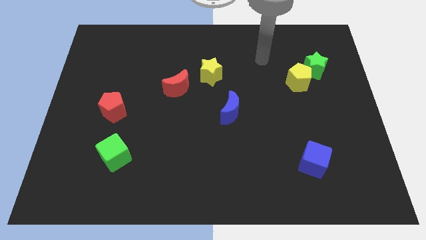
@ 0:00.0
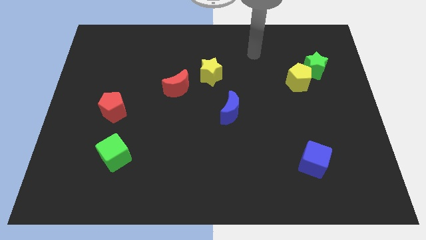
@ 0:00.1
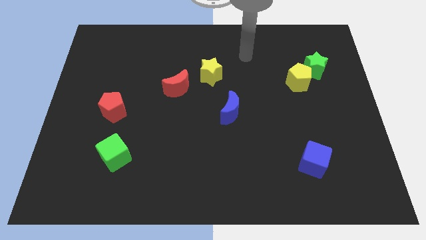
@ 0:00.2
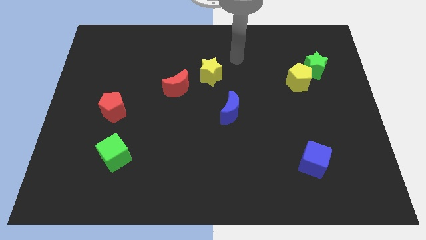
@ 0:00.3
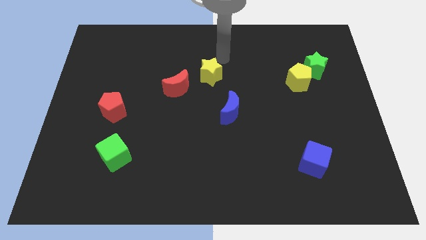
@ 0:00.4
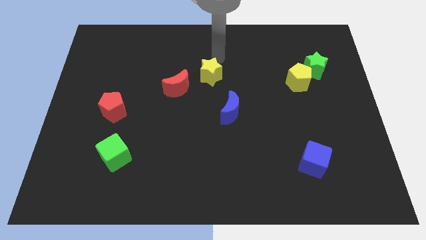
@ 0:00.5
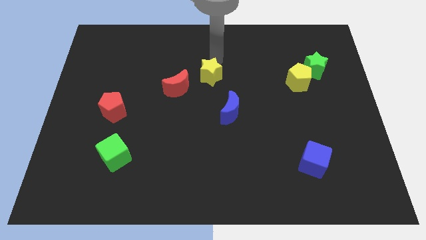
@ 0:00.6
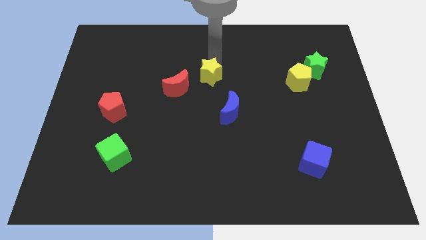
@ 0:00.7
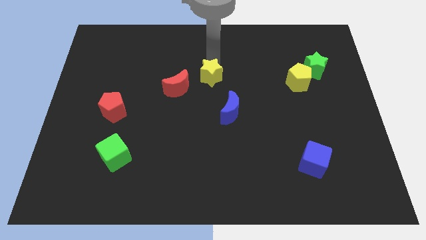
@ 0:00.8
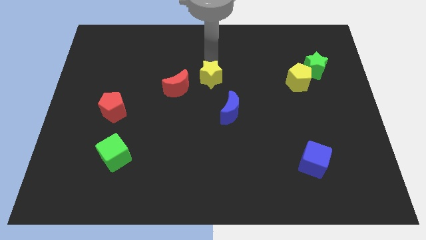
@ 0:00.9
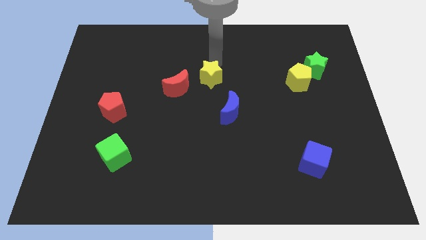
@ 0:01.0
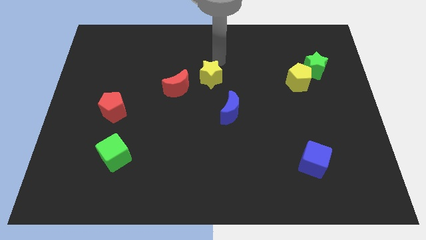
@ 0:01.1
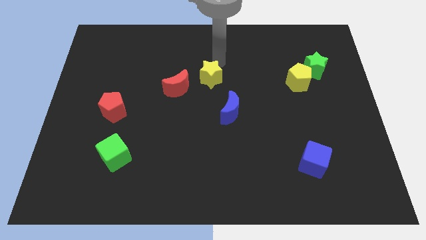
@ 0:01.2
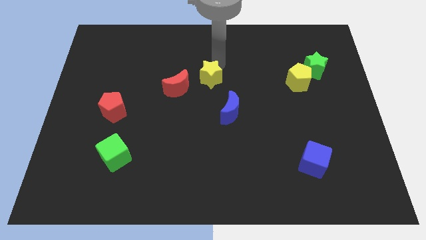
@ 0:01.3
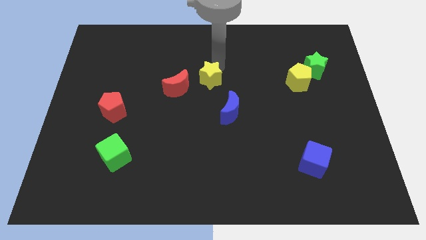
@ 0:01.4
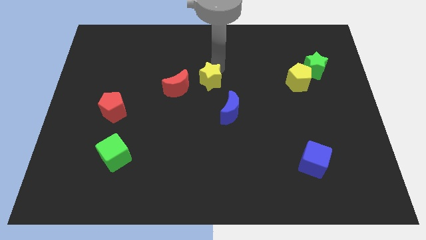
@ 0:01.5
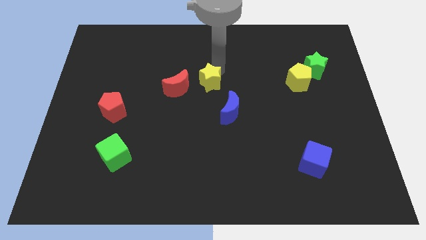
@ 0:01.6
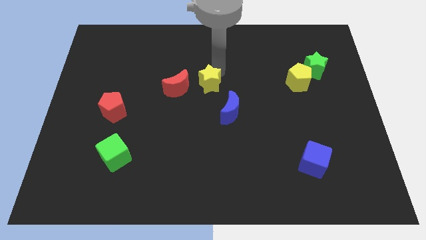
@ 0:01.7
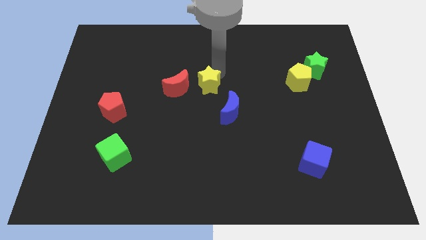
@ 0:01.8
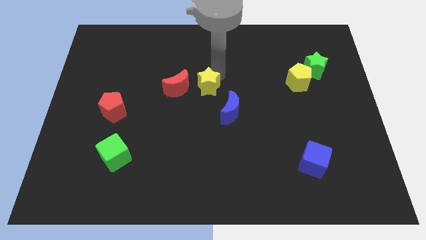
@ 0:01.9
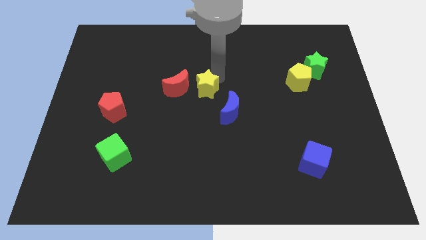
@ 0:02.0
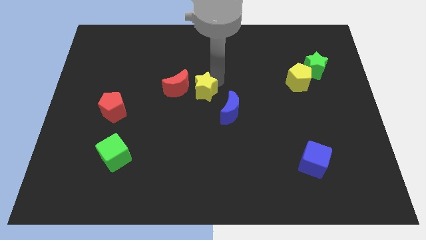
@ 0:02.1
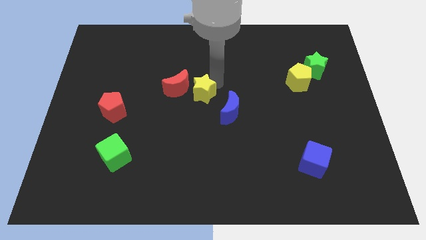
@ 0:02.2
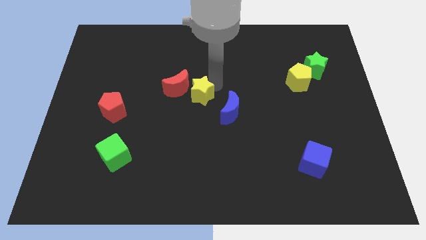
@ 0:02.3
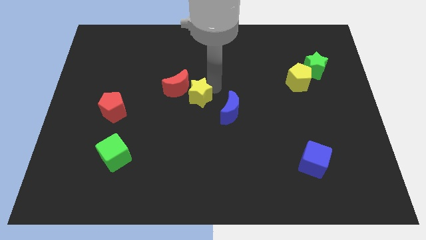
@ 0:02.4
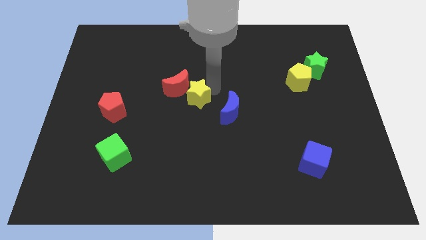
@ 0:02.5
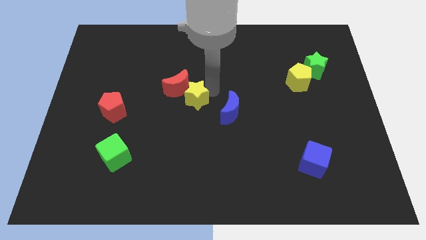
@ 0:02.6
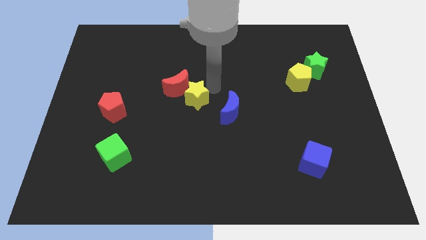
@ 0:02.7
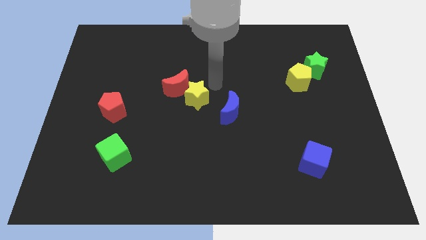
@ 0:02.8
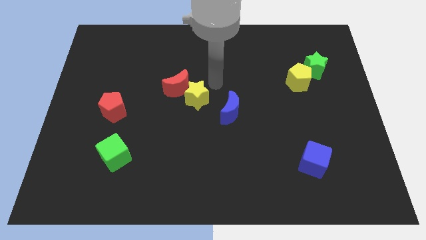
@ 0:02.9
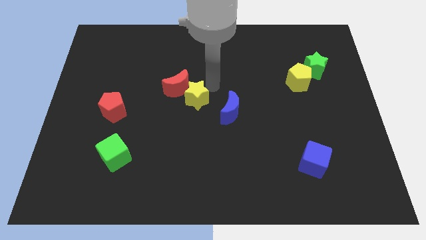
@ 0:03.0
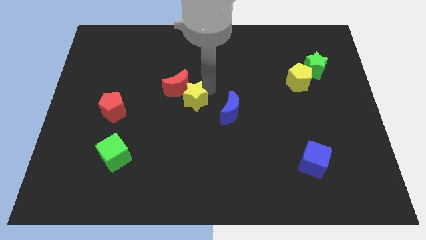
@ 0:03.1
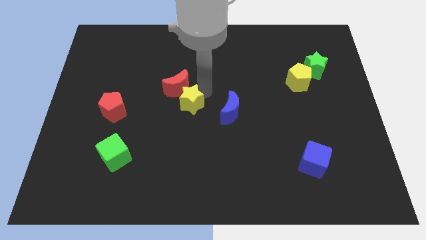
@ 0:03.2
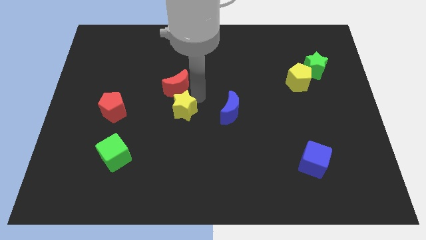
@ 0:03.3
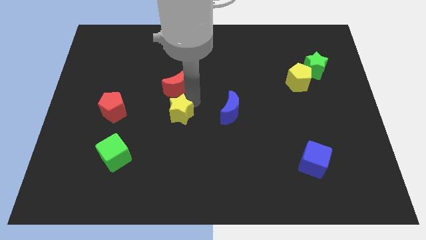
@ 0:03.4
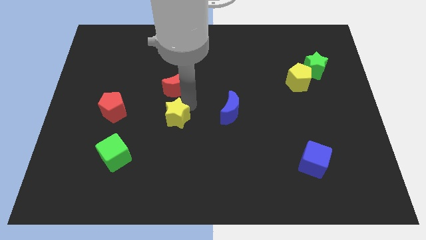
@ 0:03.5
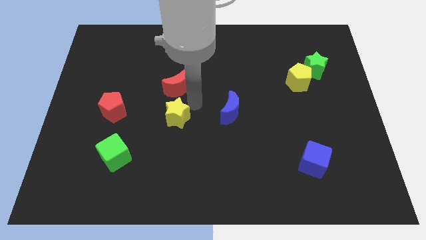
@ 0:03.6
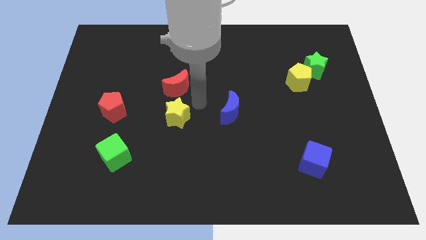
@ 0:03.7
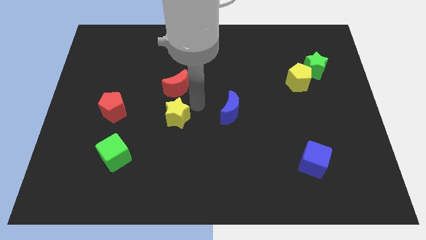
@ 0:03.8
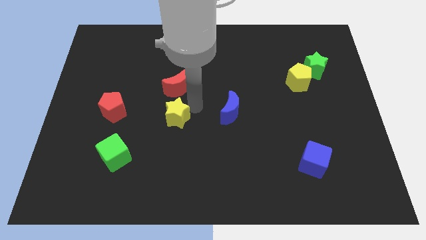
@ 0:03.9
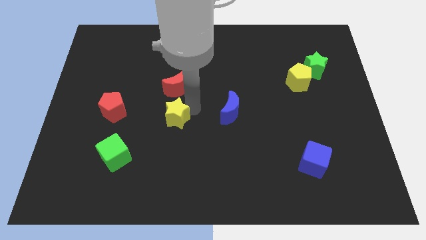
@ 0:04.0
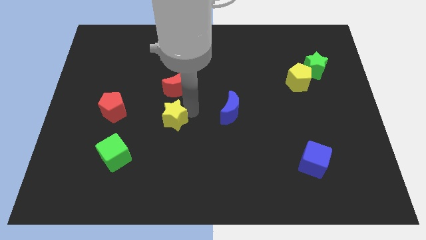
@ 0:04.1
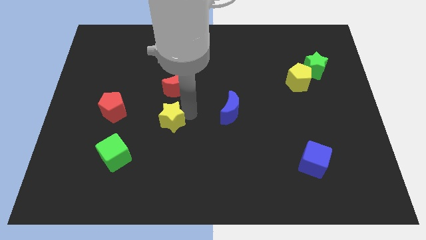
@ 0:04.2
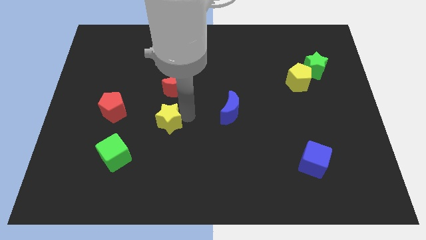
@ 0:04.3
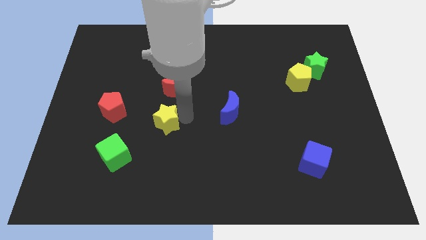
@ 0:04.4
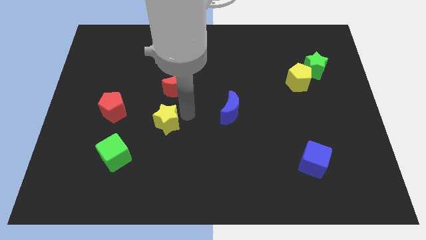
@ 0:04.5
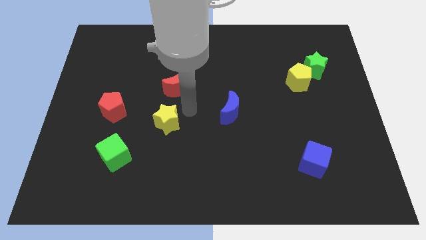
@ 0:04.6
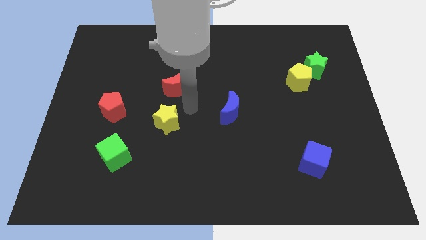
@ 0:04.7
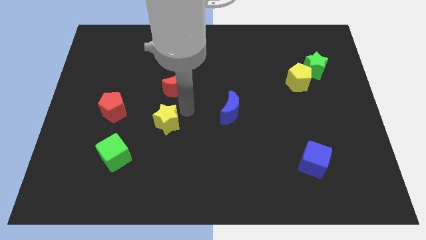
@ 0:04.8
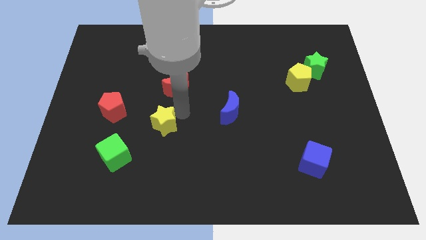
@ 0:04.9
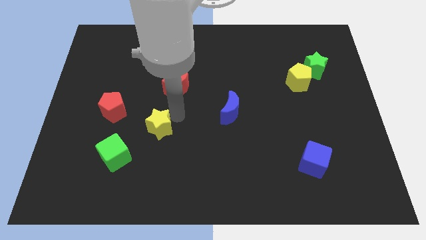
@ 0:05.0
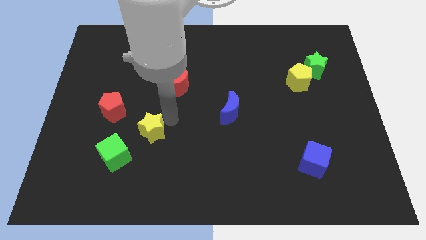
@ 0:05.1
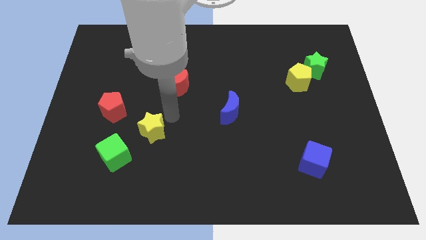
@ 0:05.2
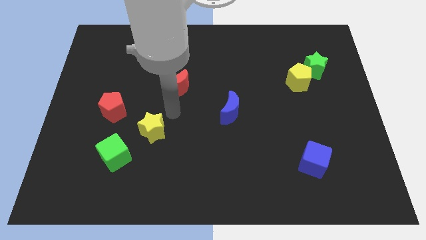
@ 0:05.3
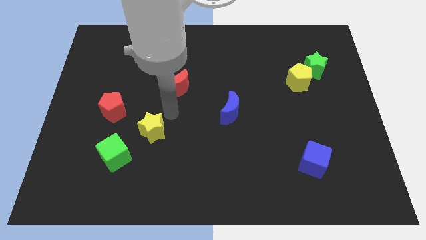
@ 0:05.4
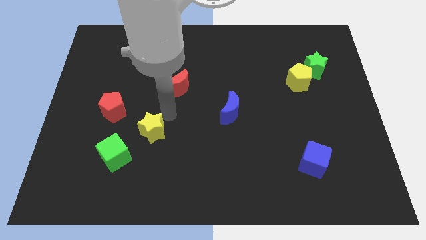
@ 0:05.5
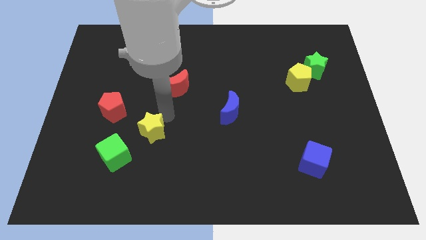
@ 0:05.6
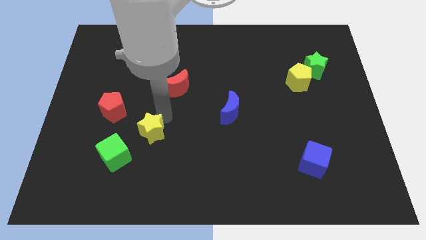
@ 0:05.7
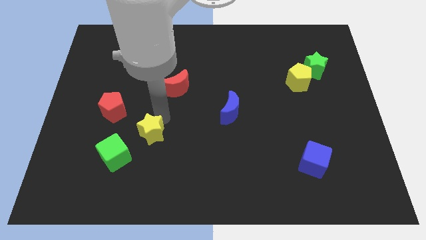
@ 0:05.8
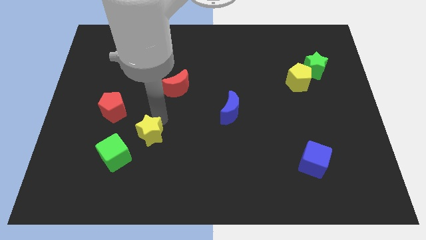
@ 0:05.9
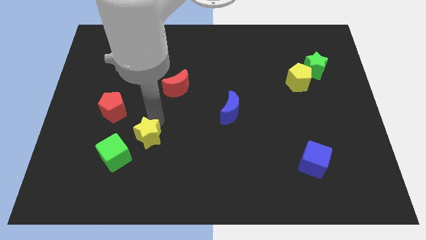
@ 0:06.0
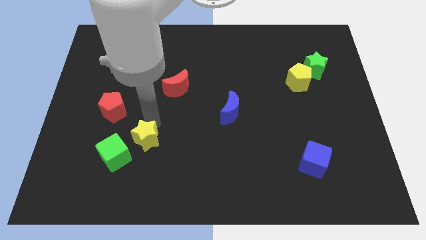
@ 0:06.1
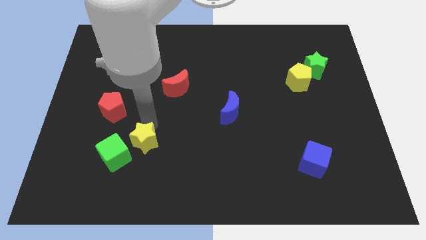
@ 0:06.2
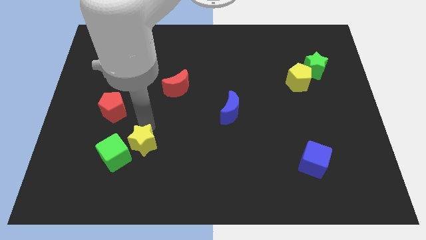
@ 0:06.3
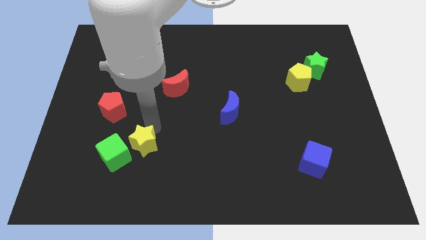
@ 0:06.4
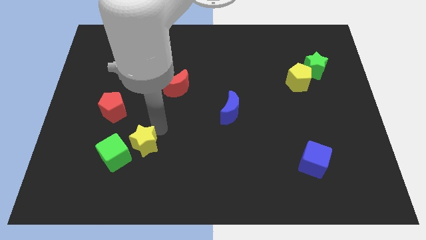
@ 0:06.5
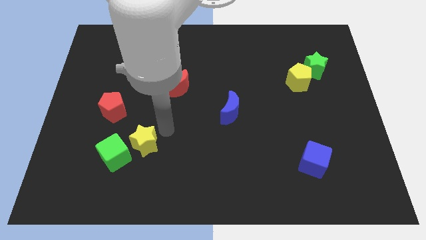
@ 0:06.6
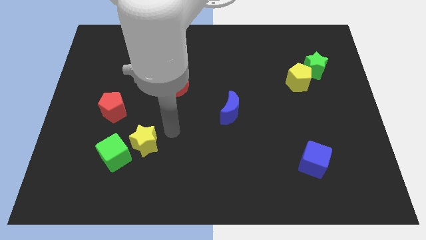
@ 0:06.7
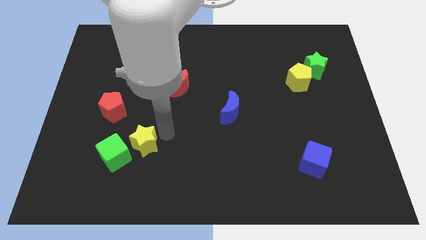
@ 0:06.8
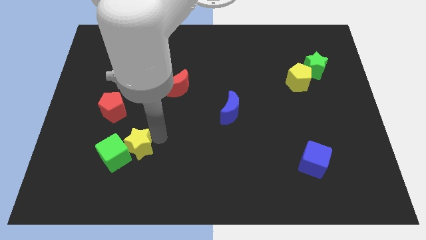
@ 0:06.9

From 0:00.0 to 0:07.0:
put the yellow star close to the green cube

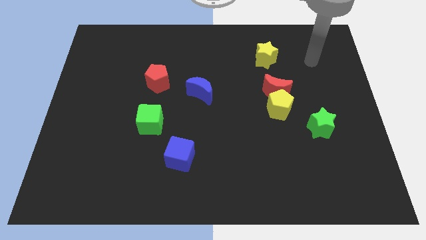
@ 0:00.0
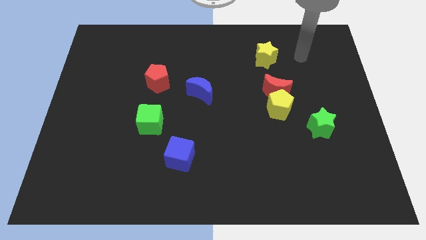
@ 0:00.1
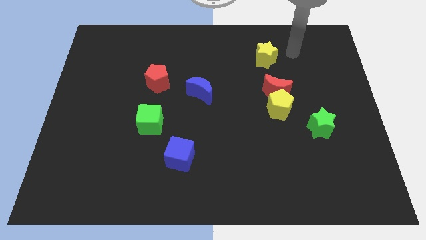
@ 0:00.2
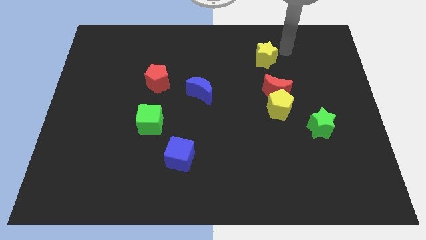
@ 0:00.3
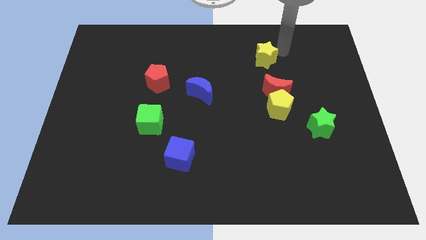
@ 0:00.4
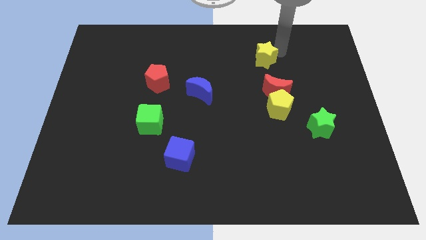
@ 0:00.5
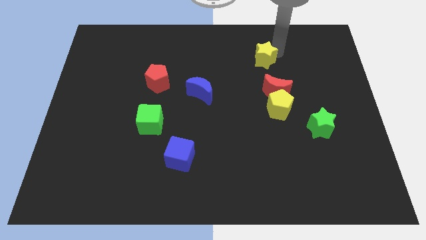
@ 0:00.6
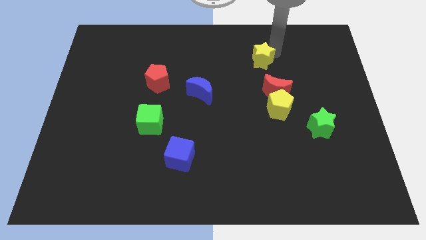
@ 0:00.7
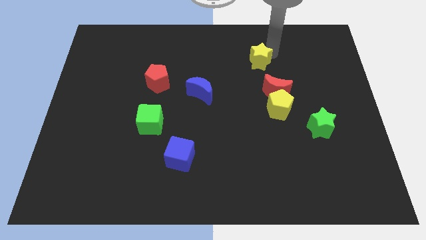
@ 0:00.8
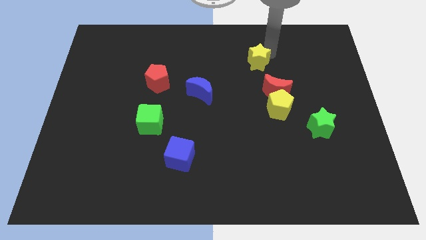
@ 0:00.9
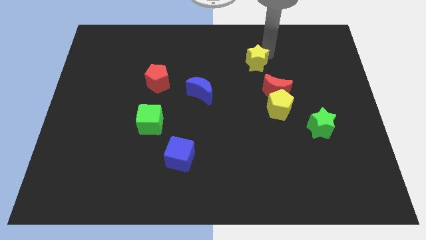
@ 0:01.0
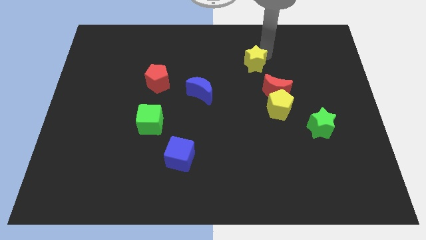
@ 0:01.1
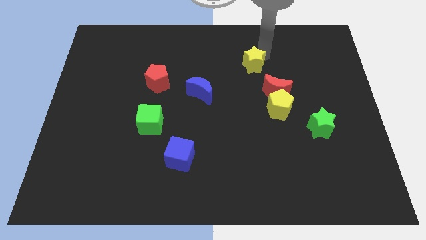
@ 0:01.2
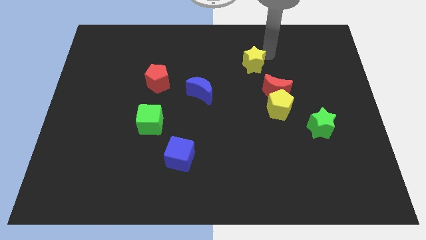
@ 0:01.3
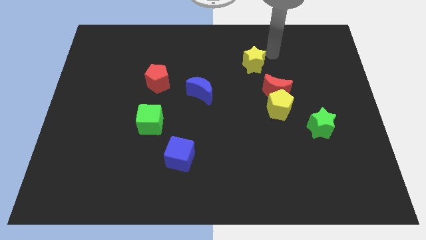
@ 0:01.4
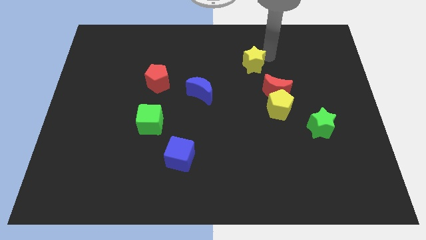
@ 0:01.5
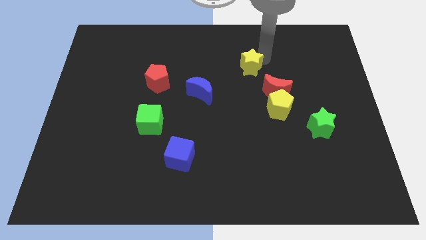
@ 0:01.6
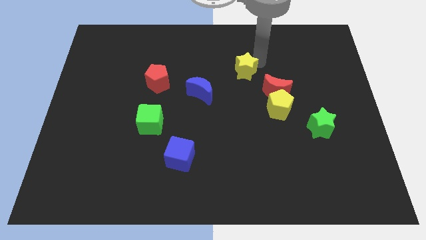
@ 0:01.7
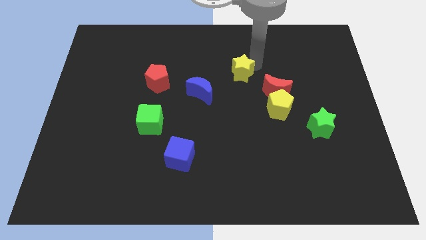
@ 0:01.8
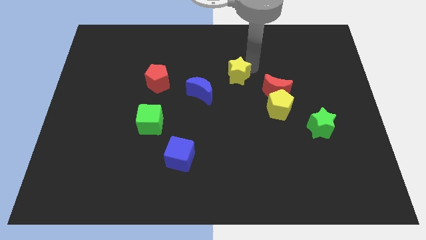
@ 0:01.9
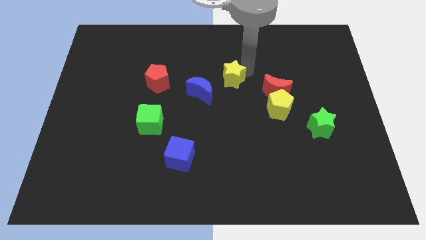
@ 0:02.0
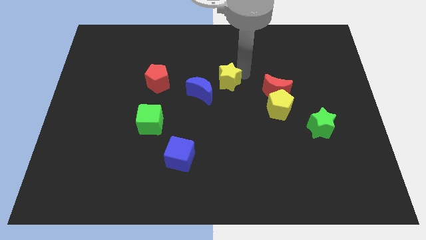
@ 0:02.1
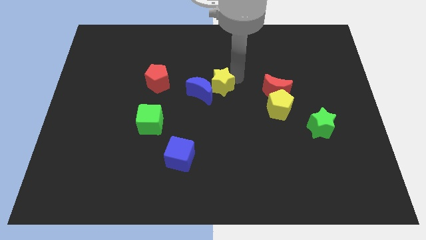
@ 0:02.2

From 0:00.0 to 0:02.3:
slide the yellow star close to the blue moon
